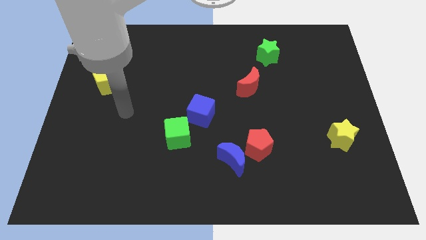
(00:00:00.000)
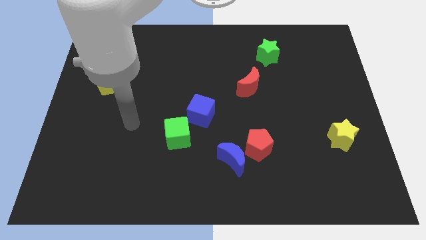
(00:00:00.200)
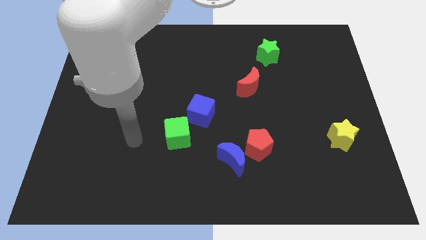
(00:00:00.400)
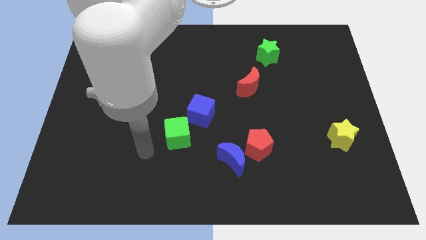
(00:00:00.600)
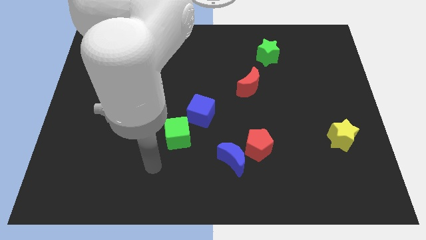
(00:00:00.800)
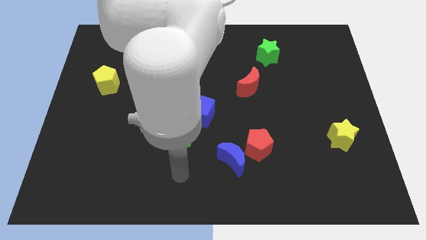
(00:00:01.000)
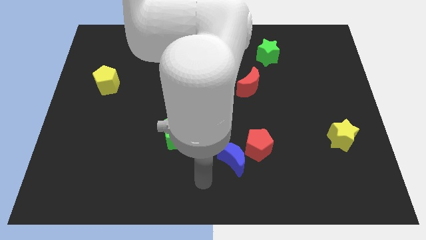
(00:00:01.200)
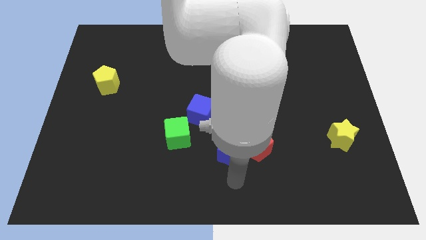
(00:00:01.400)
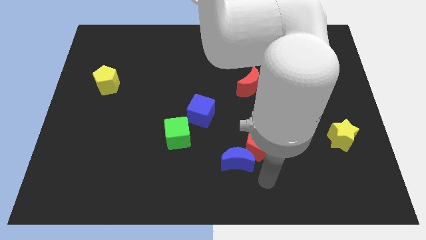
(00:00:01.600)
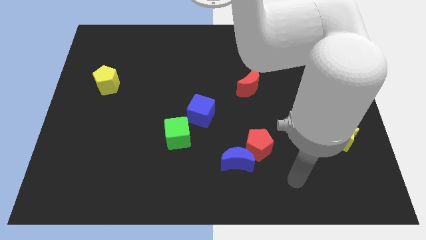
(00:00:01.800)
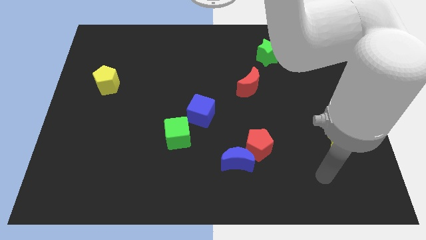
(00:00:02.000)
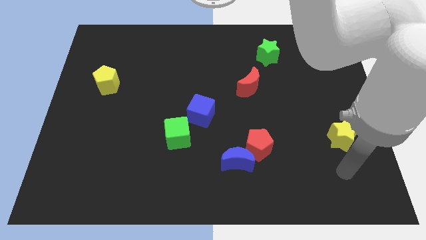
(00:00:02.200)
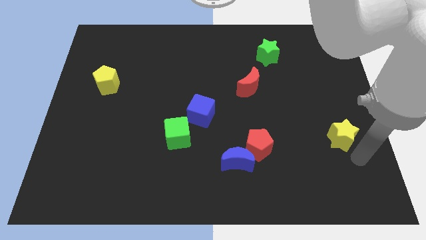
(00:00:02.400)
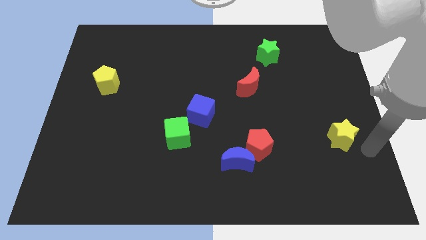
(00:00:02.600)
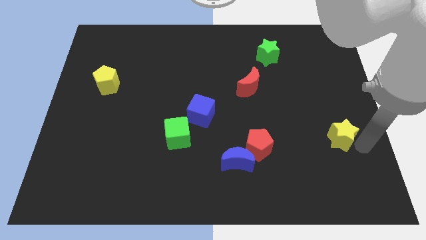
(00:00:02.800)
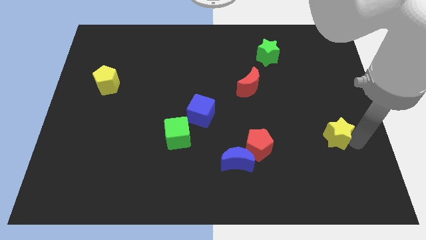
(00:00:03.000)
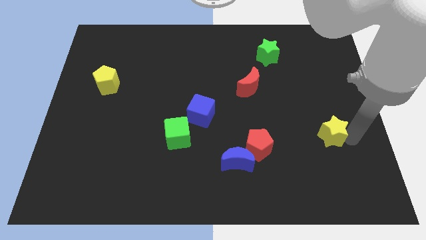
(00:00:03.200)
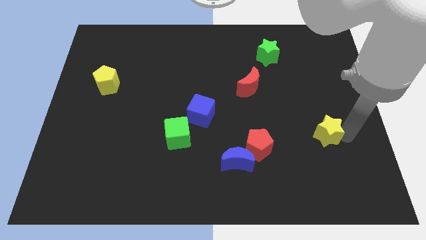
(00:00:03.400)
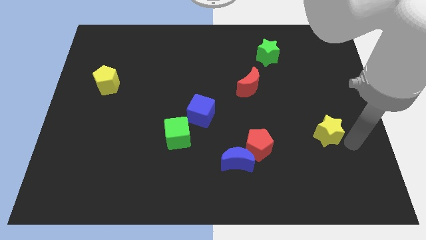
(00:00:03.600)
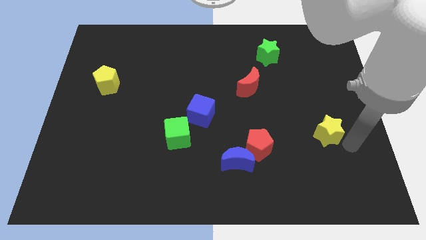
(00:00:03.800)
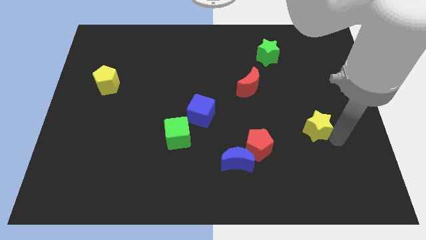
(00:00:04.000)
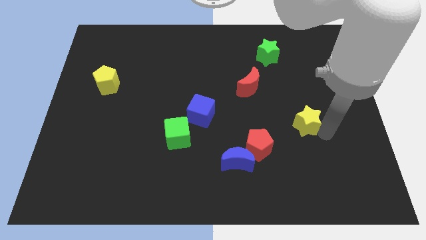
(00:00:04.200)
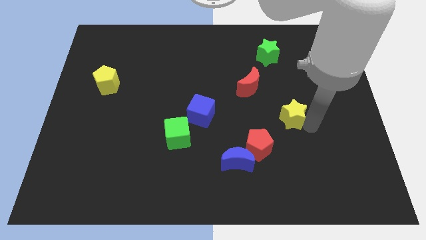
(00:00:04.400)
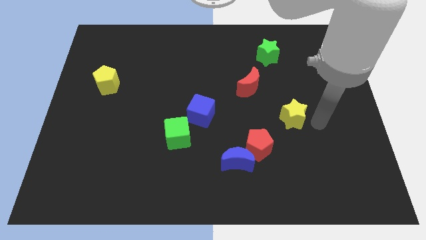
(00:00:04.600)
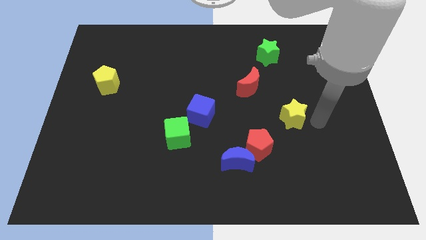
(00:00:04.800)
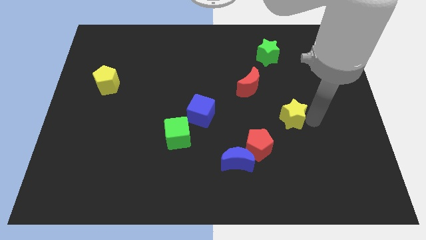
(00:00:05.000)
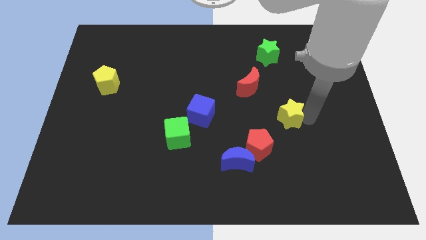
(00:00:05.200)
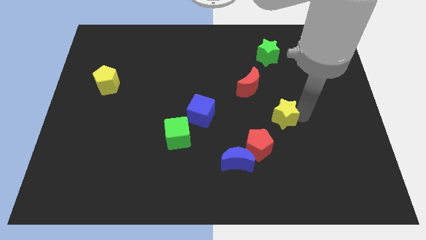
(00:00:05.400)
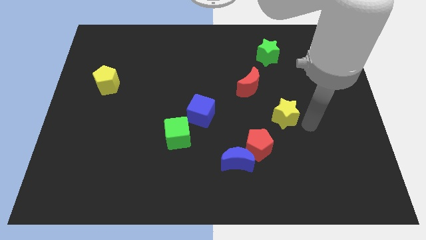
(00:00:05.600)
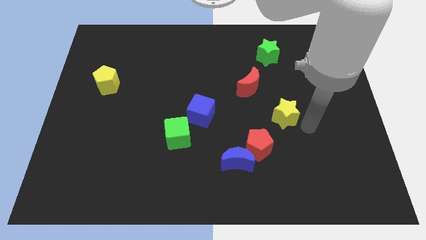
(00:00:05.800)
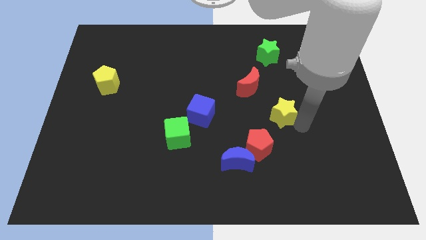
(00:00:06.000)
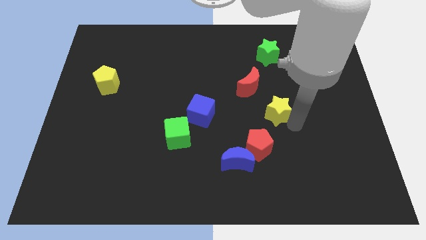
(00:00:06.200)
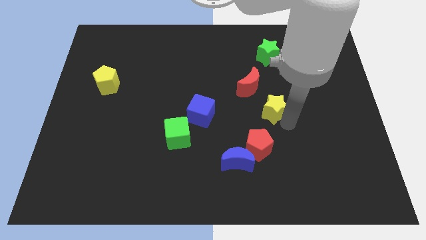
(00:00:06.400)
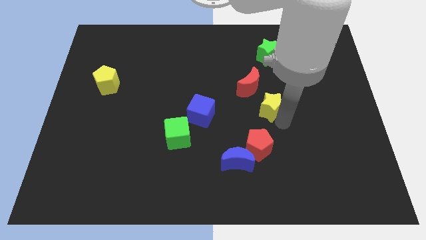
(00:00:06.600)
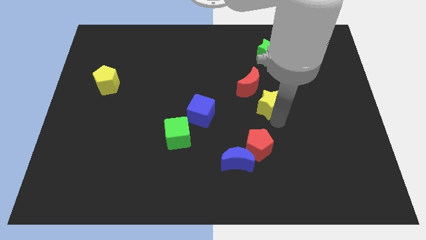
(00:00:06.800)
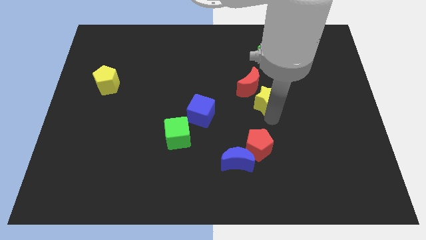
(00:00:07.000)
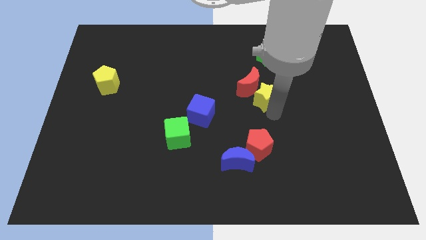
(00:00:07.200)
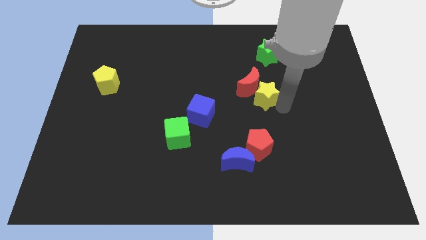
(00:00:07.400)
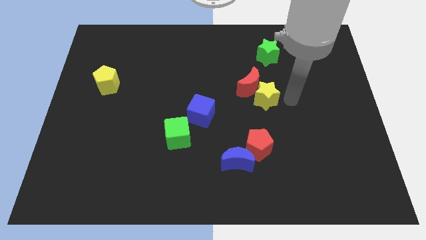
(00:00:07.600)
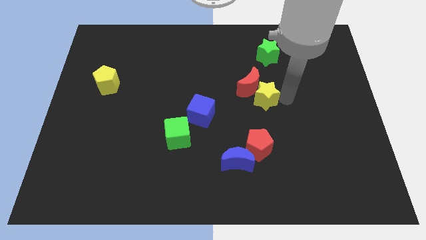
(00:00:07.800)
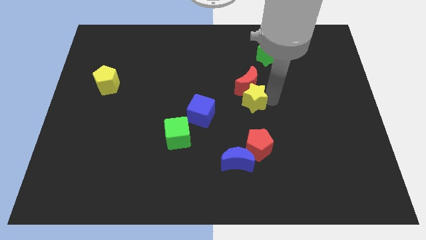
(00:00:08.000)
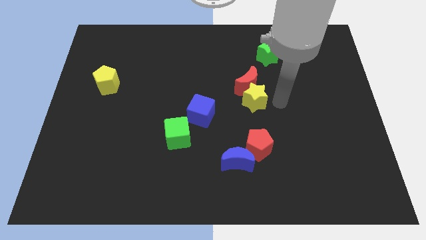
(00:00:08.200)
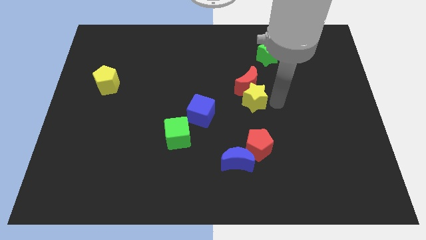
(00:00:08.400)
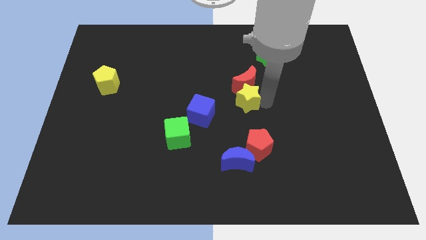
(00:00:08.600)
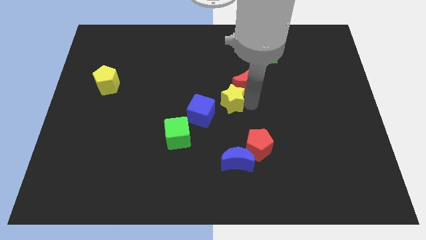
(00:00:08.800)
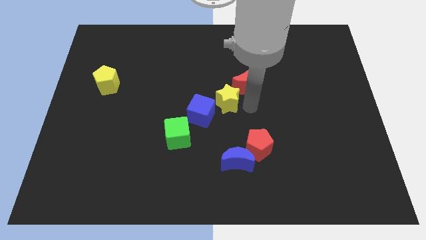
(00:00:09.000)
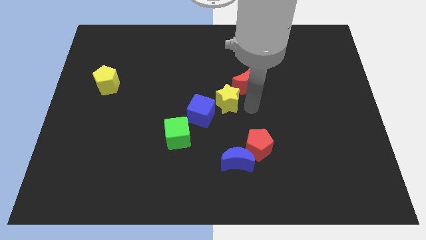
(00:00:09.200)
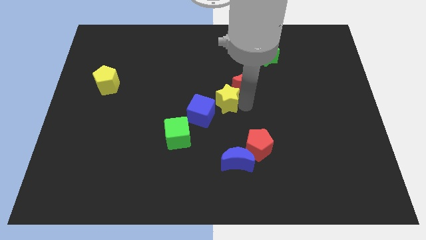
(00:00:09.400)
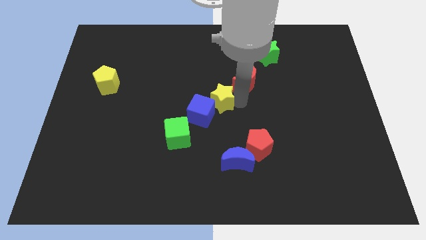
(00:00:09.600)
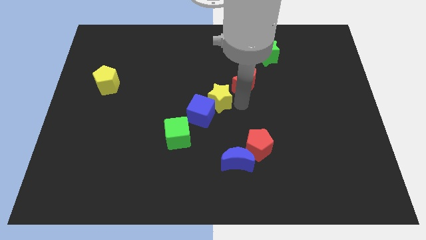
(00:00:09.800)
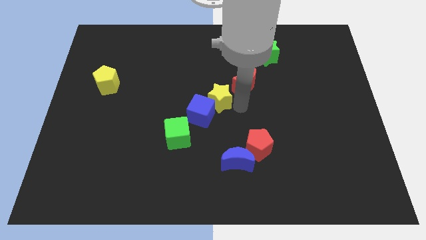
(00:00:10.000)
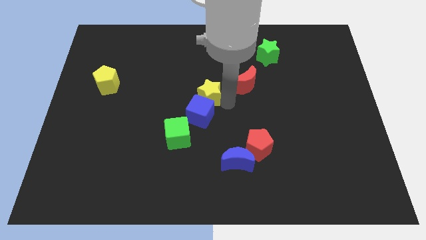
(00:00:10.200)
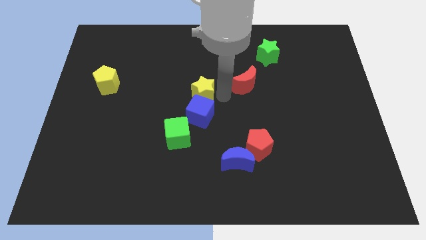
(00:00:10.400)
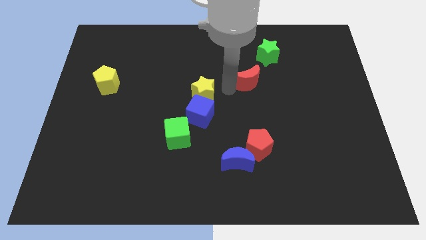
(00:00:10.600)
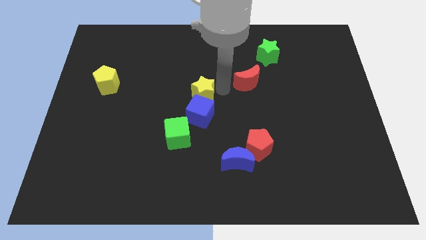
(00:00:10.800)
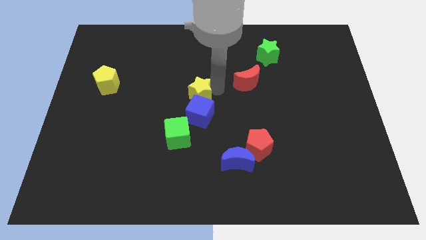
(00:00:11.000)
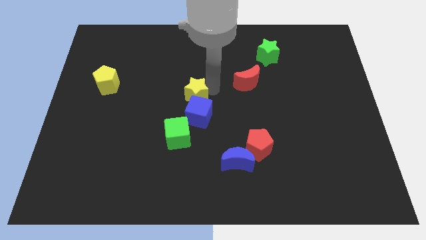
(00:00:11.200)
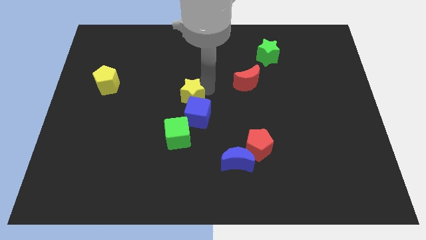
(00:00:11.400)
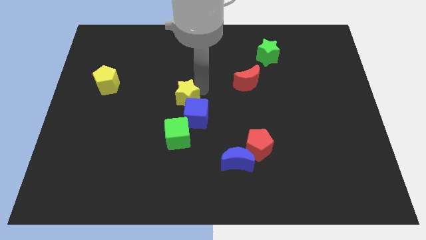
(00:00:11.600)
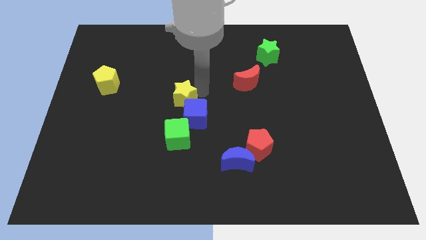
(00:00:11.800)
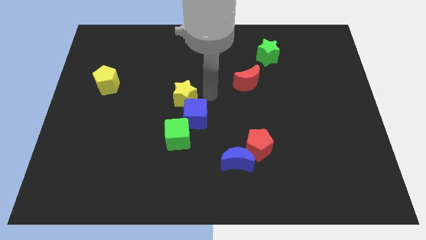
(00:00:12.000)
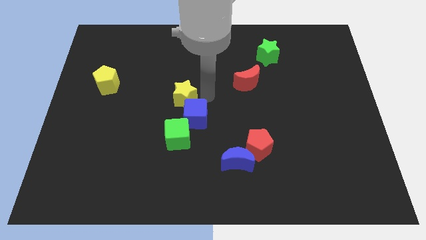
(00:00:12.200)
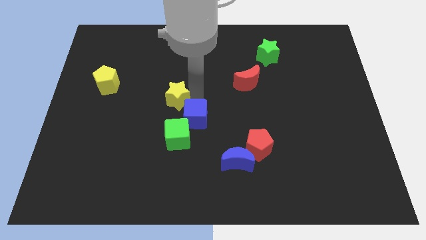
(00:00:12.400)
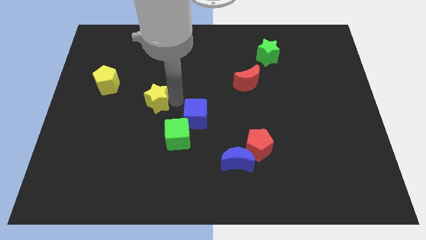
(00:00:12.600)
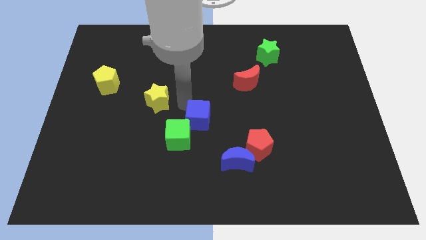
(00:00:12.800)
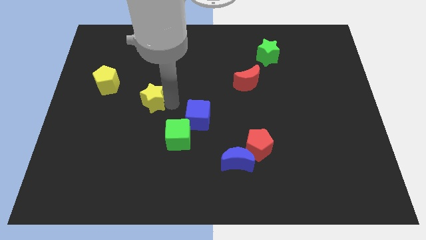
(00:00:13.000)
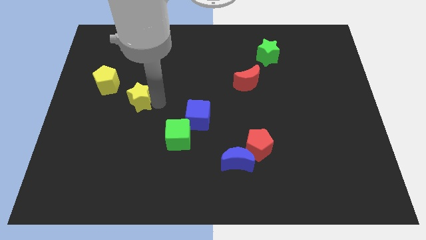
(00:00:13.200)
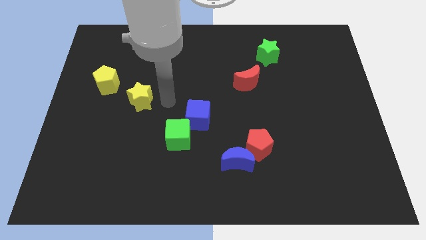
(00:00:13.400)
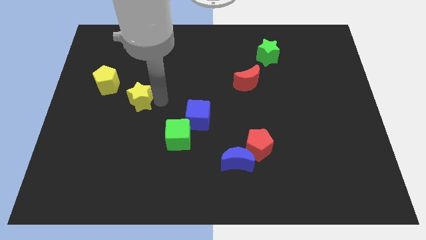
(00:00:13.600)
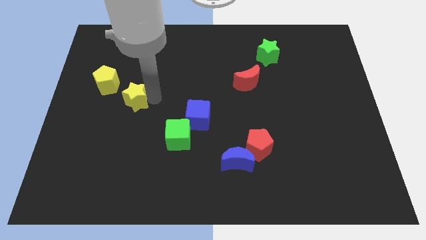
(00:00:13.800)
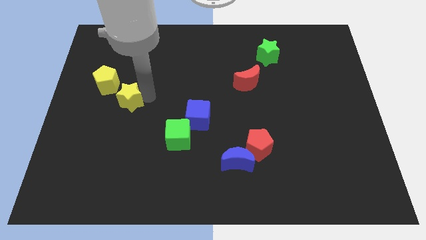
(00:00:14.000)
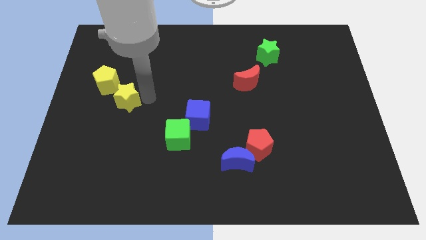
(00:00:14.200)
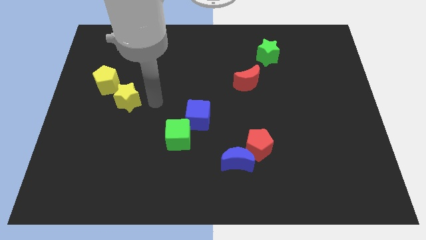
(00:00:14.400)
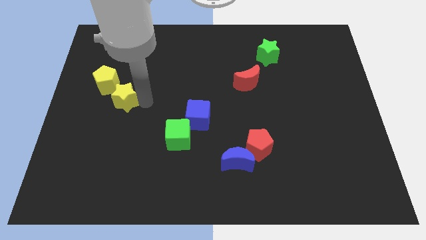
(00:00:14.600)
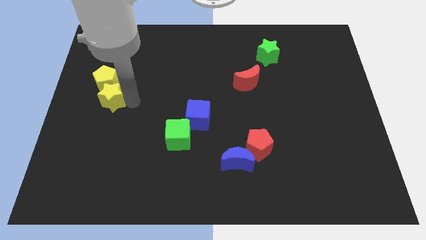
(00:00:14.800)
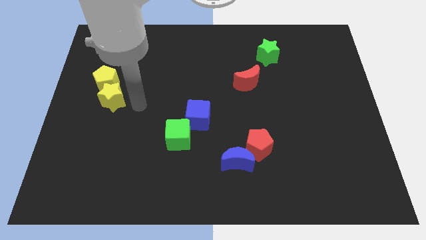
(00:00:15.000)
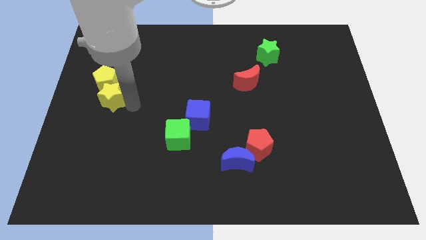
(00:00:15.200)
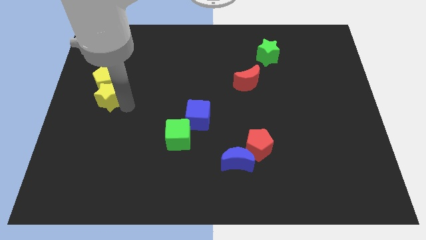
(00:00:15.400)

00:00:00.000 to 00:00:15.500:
put the yellow star to the center left
